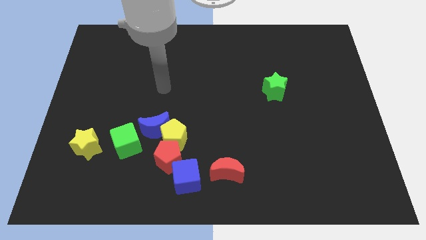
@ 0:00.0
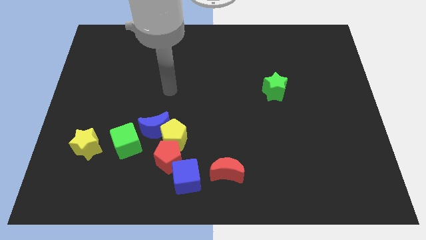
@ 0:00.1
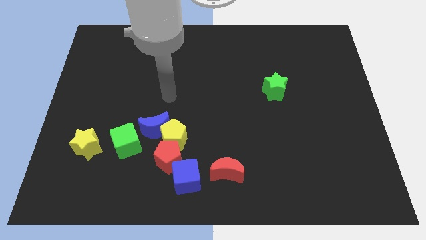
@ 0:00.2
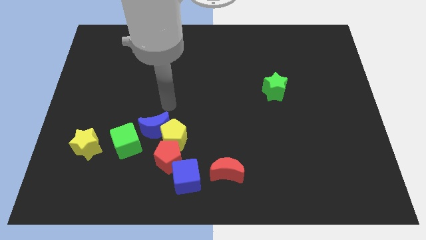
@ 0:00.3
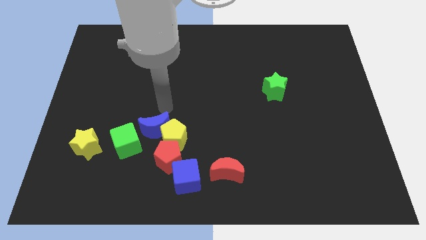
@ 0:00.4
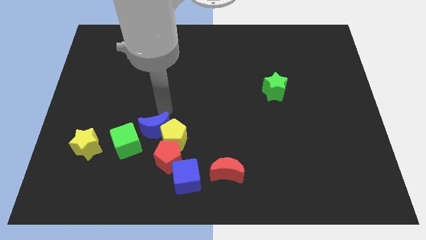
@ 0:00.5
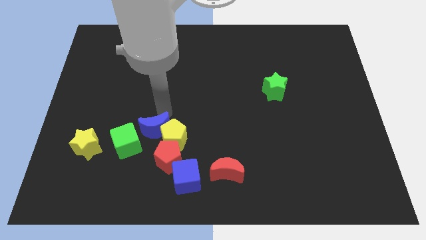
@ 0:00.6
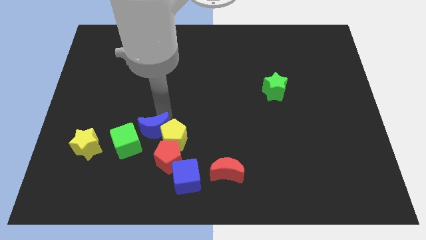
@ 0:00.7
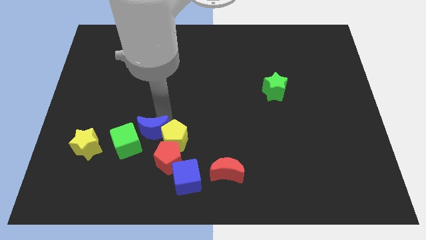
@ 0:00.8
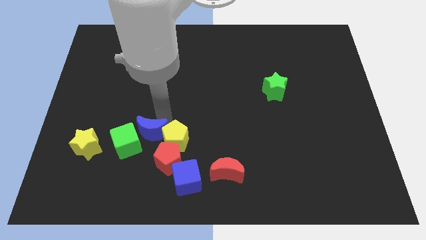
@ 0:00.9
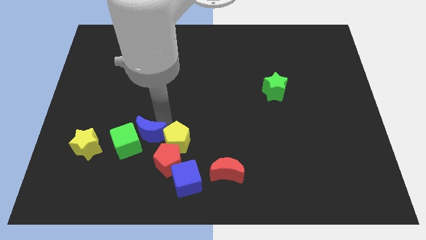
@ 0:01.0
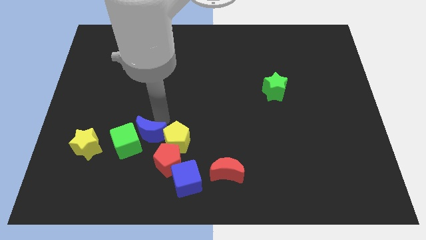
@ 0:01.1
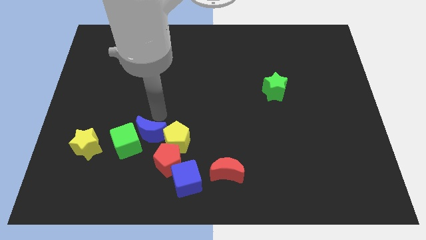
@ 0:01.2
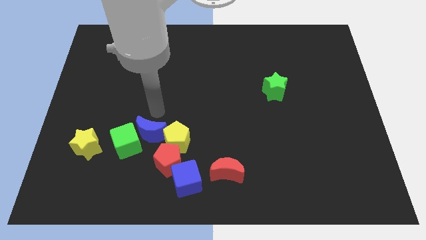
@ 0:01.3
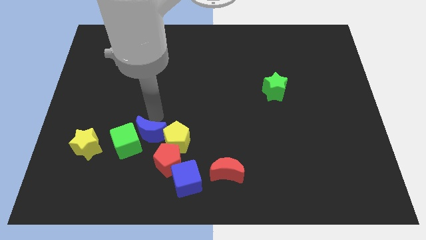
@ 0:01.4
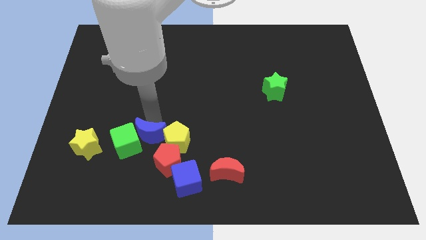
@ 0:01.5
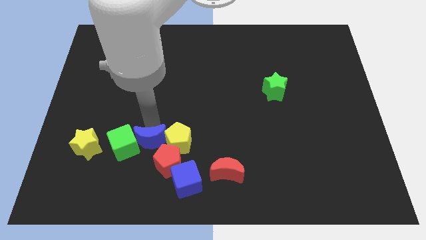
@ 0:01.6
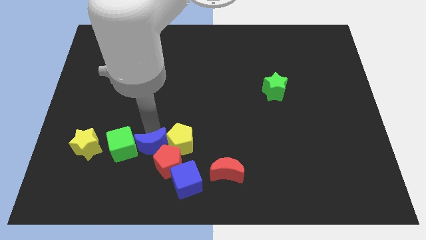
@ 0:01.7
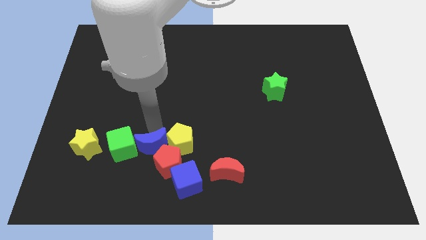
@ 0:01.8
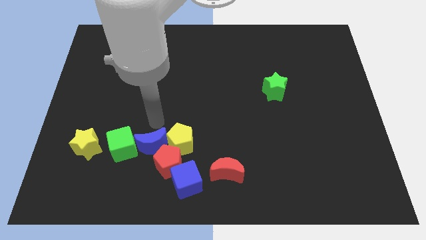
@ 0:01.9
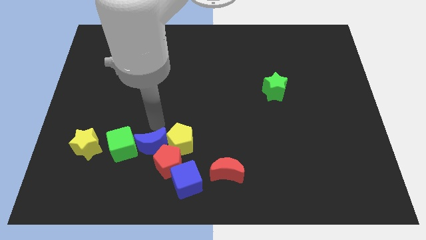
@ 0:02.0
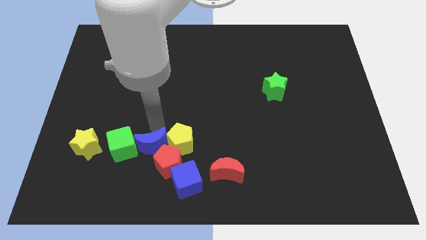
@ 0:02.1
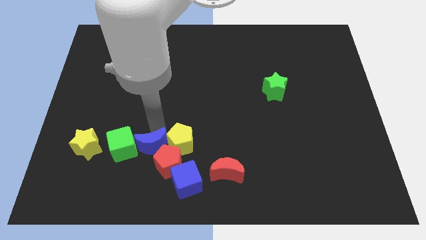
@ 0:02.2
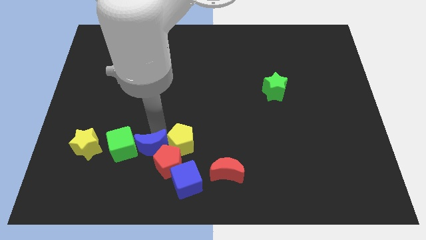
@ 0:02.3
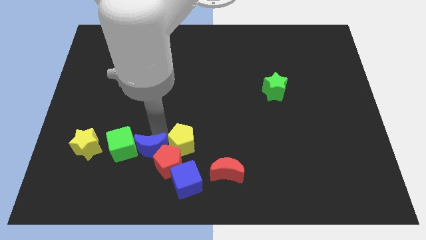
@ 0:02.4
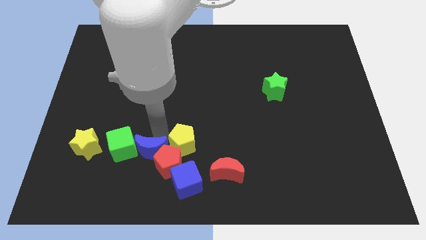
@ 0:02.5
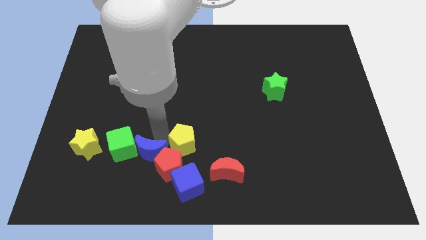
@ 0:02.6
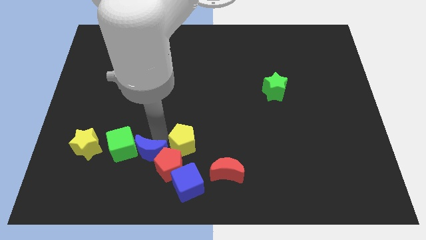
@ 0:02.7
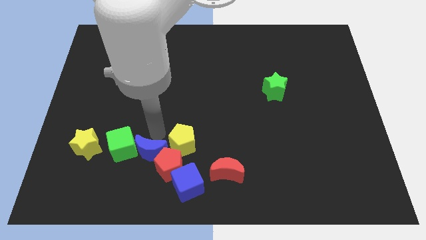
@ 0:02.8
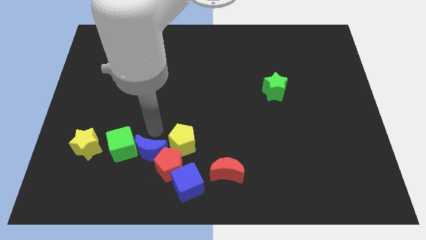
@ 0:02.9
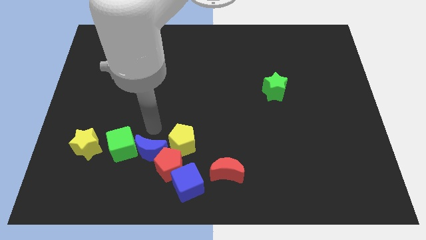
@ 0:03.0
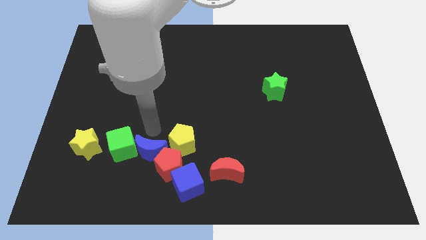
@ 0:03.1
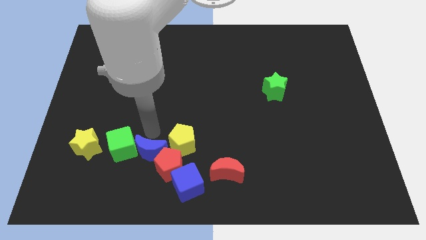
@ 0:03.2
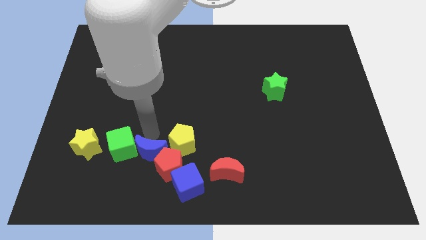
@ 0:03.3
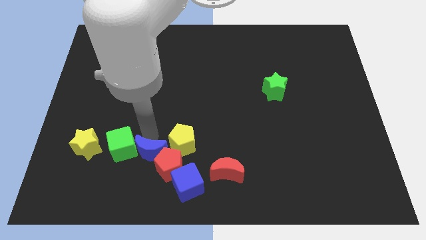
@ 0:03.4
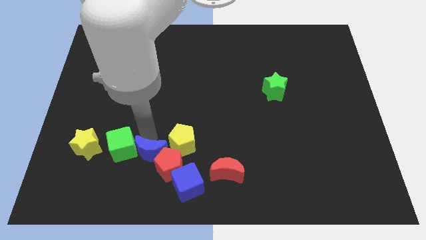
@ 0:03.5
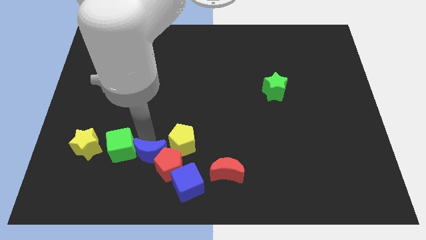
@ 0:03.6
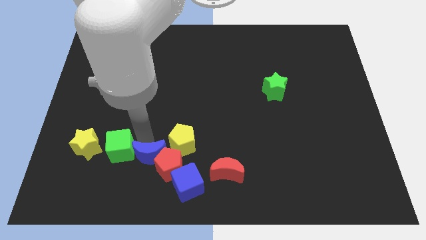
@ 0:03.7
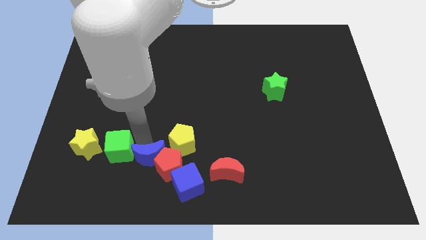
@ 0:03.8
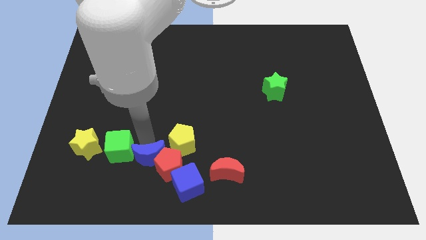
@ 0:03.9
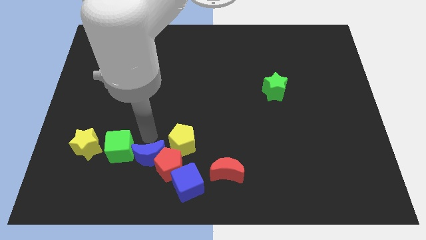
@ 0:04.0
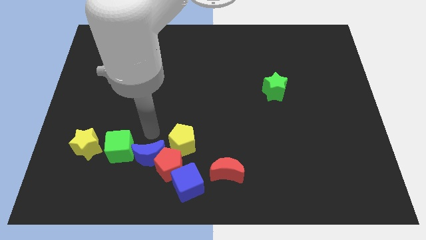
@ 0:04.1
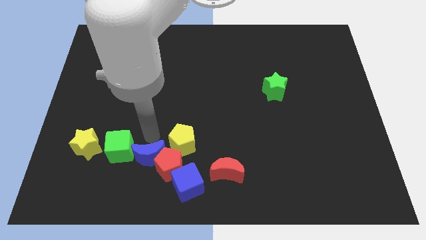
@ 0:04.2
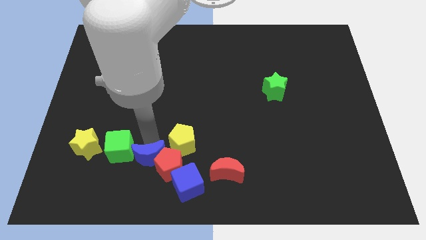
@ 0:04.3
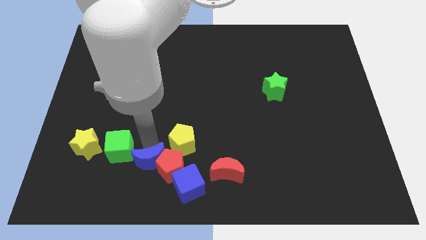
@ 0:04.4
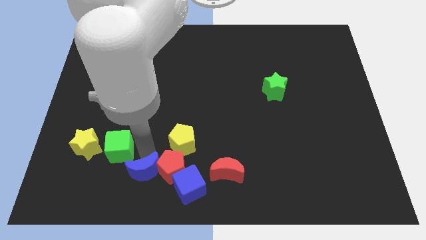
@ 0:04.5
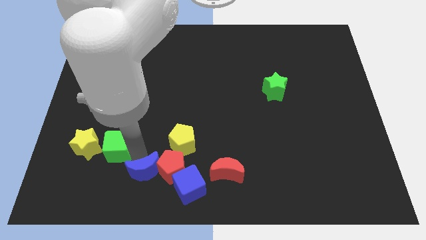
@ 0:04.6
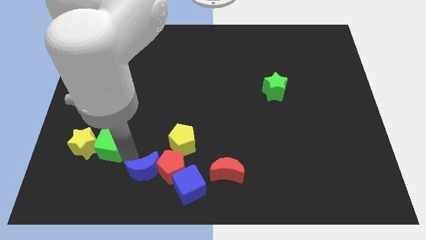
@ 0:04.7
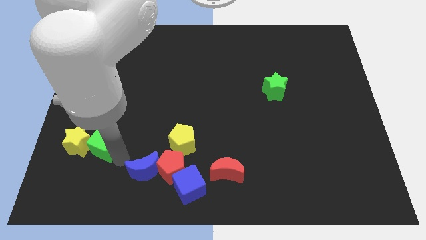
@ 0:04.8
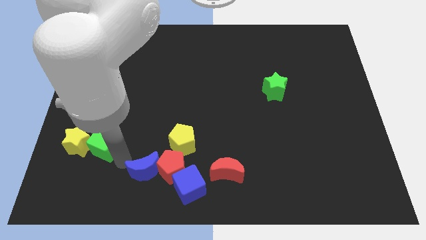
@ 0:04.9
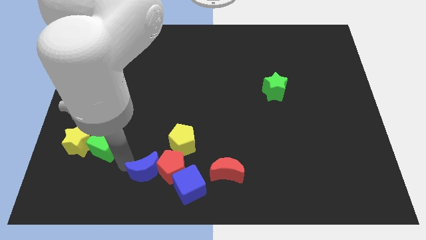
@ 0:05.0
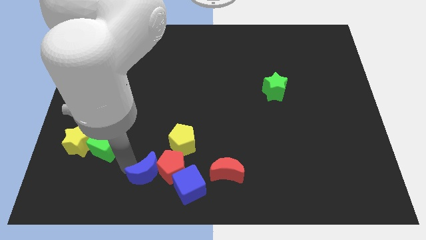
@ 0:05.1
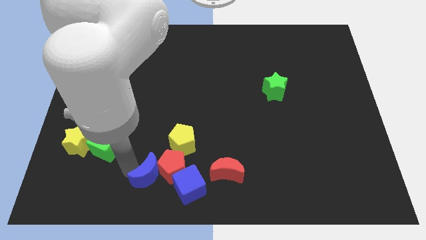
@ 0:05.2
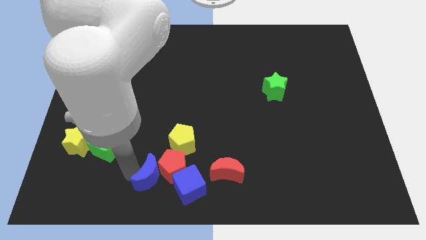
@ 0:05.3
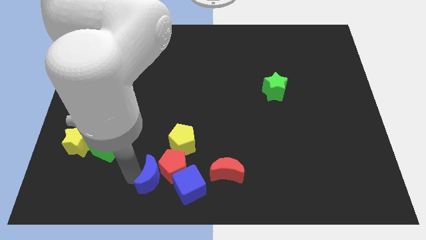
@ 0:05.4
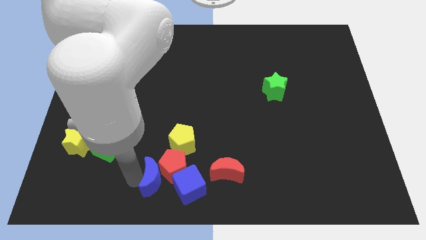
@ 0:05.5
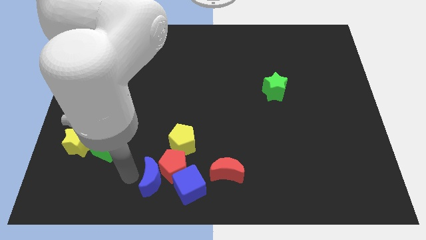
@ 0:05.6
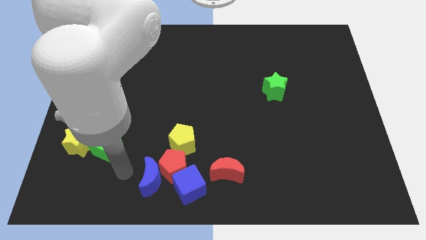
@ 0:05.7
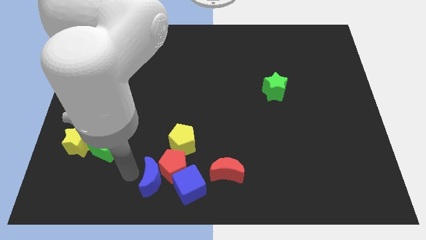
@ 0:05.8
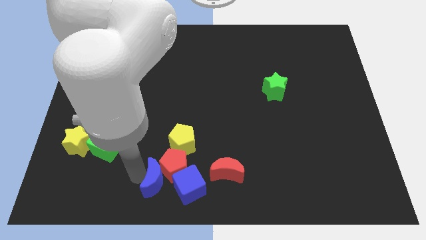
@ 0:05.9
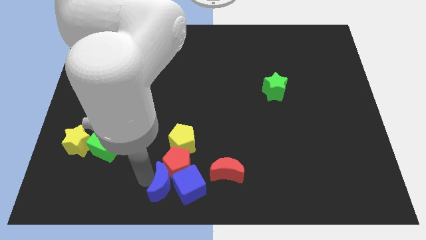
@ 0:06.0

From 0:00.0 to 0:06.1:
slide the blue moon below the yellow pentagon
